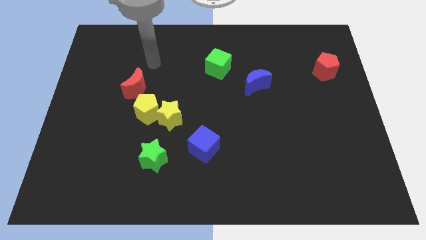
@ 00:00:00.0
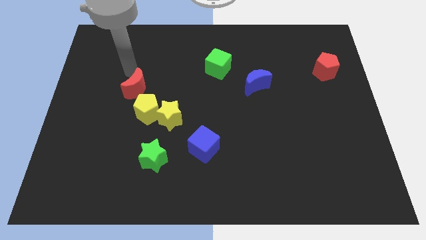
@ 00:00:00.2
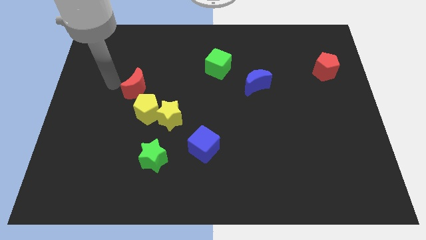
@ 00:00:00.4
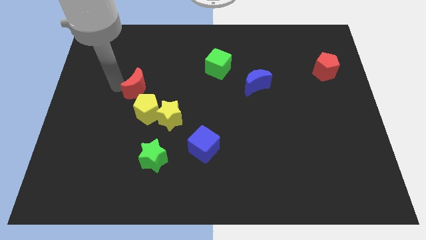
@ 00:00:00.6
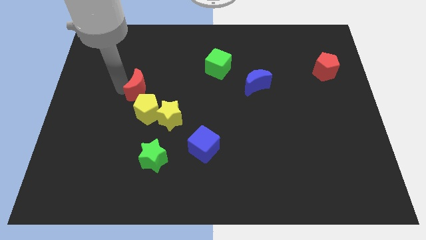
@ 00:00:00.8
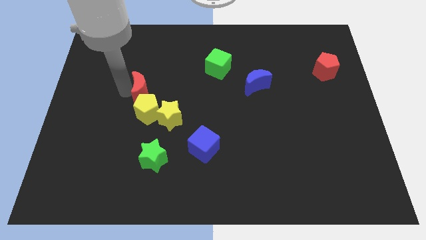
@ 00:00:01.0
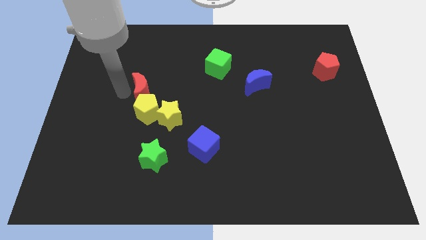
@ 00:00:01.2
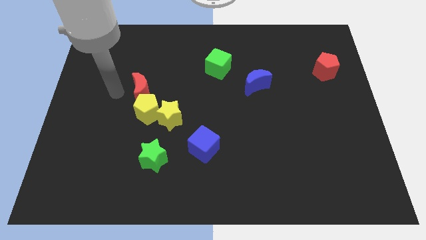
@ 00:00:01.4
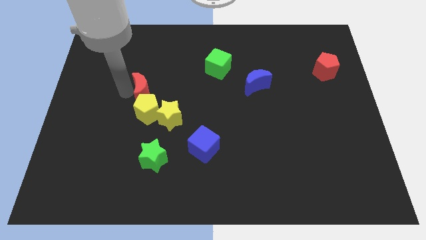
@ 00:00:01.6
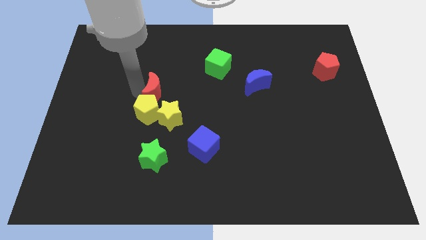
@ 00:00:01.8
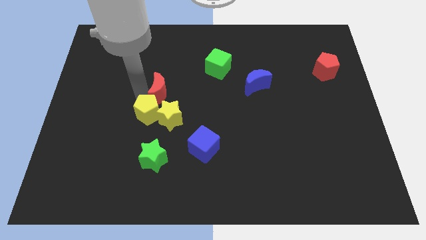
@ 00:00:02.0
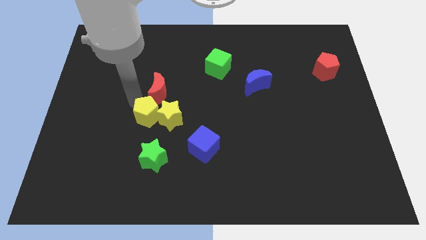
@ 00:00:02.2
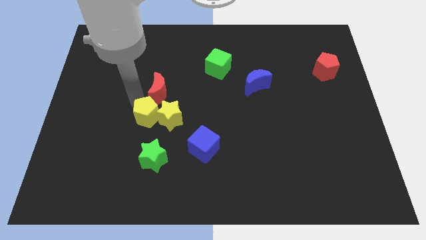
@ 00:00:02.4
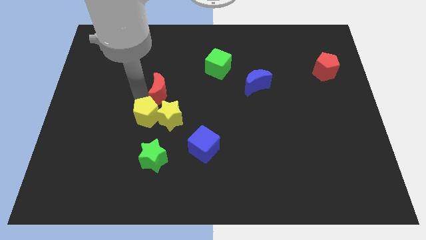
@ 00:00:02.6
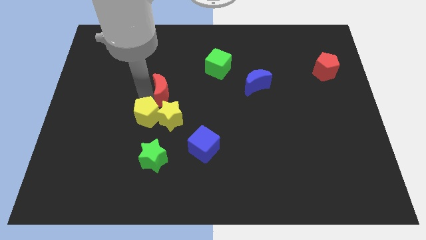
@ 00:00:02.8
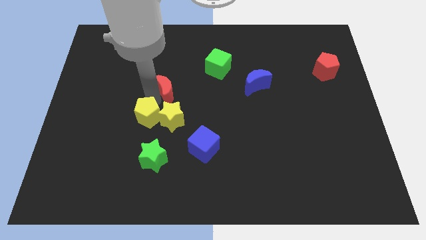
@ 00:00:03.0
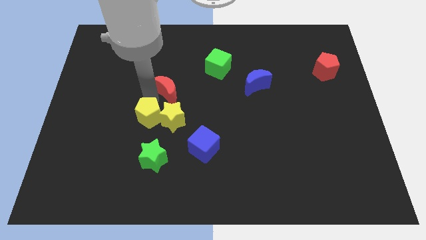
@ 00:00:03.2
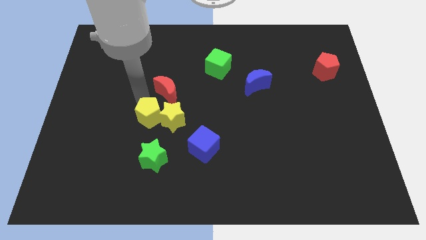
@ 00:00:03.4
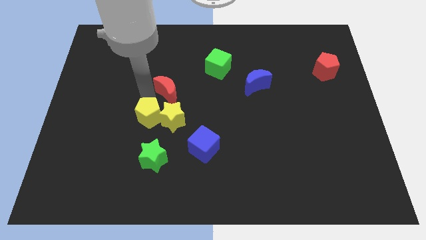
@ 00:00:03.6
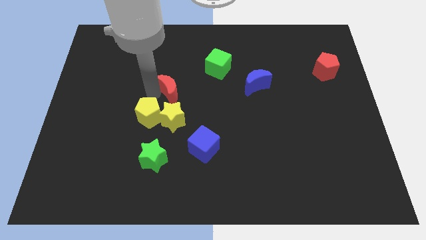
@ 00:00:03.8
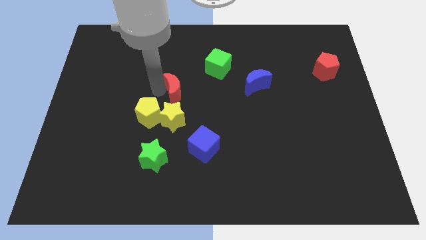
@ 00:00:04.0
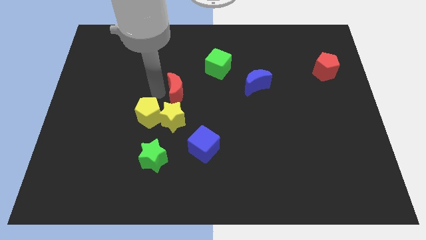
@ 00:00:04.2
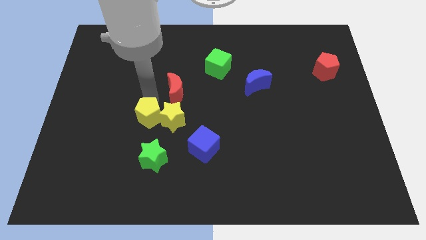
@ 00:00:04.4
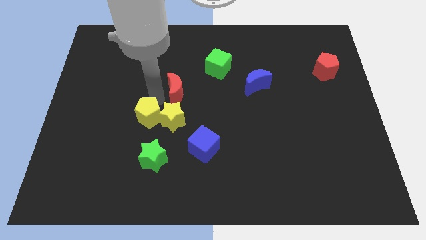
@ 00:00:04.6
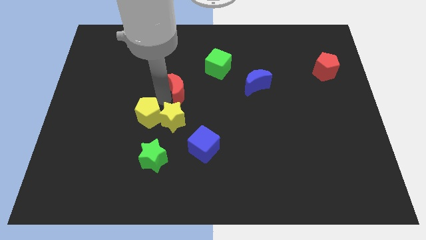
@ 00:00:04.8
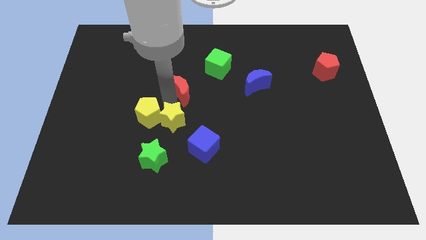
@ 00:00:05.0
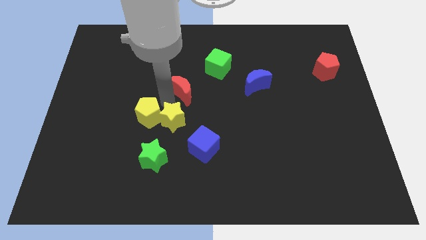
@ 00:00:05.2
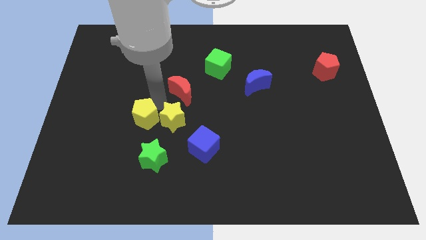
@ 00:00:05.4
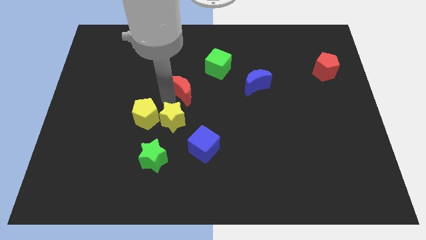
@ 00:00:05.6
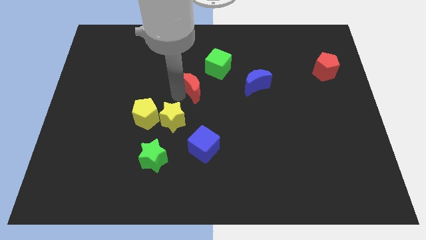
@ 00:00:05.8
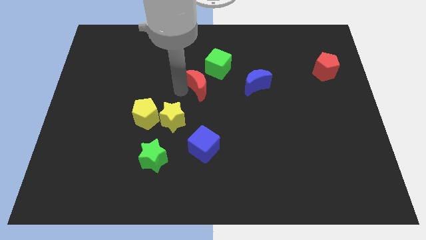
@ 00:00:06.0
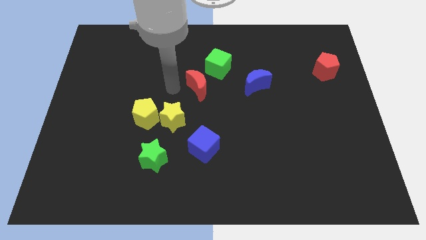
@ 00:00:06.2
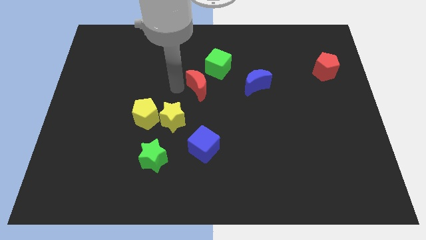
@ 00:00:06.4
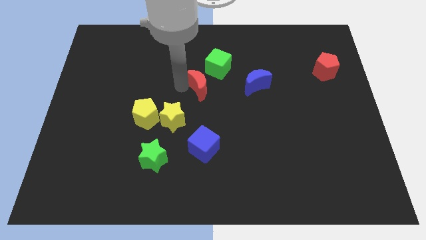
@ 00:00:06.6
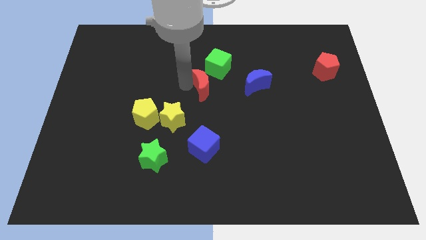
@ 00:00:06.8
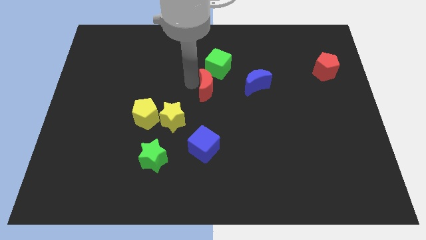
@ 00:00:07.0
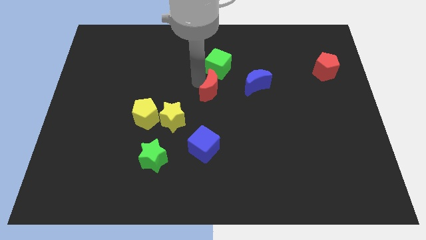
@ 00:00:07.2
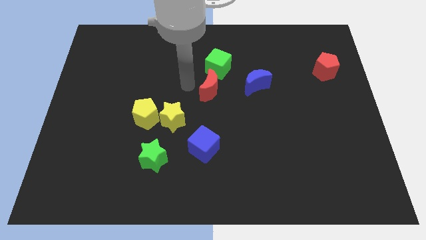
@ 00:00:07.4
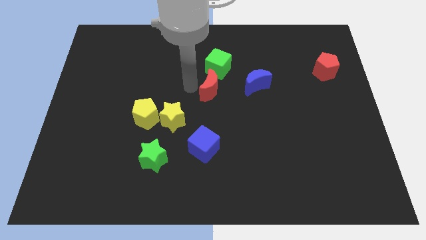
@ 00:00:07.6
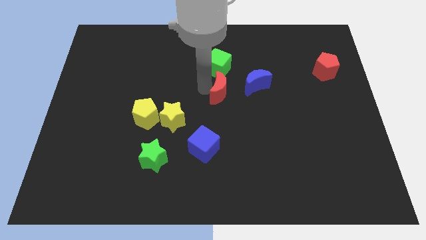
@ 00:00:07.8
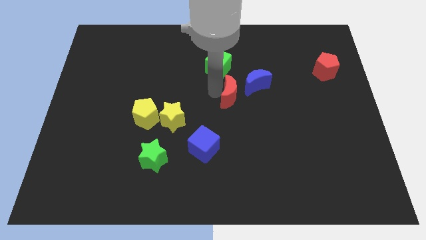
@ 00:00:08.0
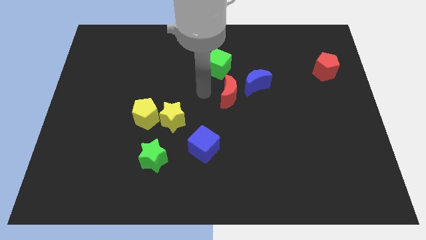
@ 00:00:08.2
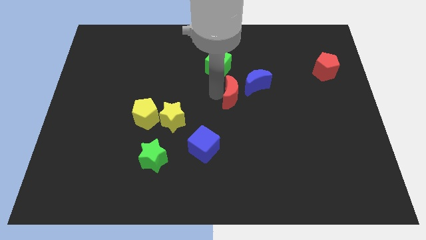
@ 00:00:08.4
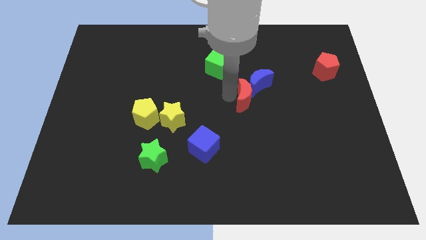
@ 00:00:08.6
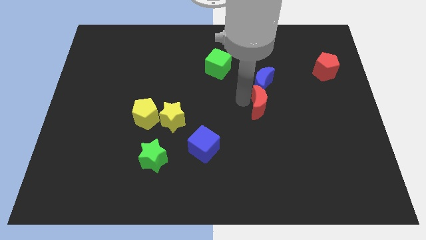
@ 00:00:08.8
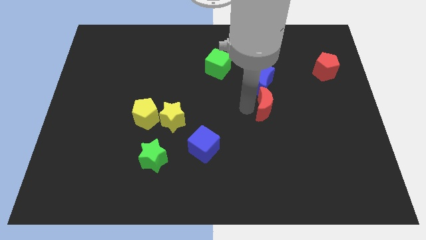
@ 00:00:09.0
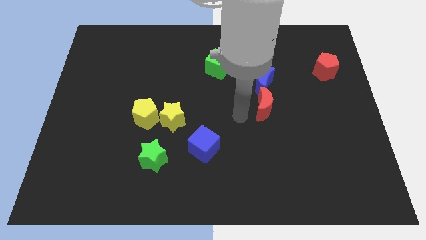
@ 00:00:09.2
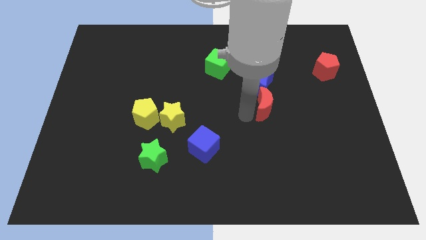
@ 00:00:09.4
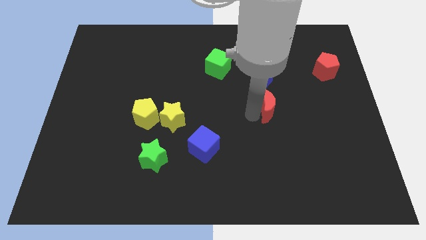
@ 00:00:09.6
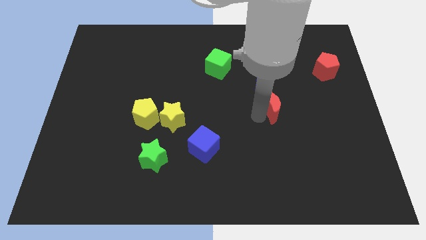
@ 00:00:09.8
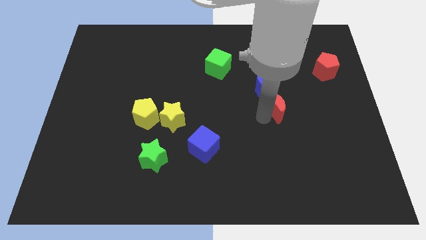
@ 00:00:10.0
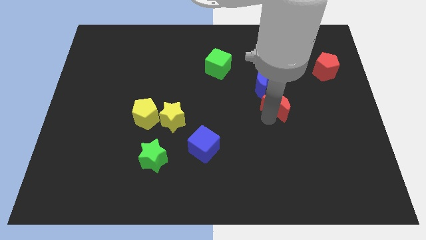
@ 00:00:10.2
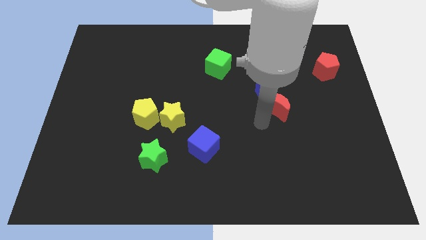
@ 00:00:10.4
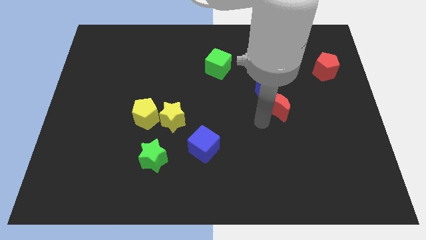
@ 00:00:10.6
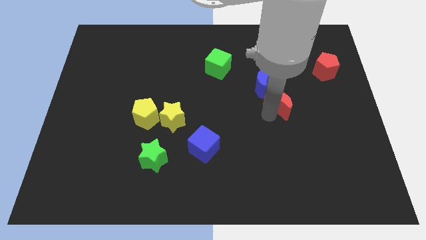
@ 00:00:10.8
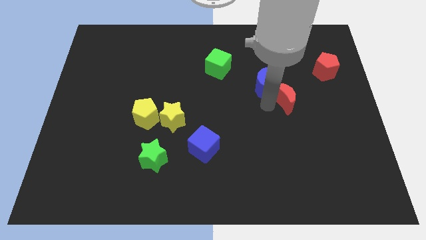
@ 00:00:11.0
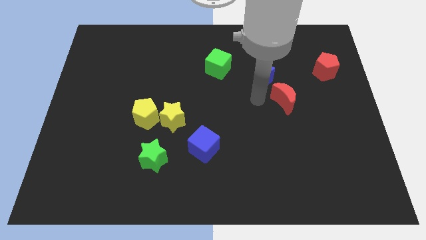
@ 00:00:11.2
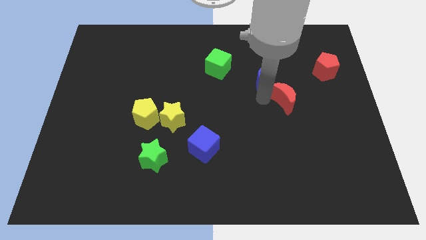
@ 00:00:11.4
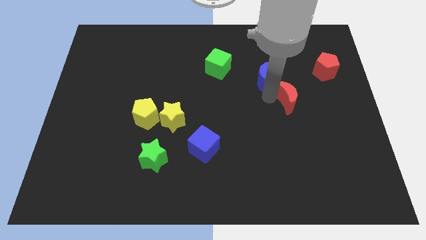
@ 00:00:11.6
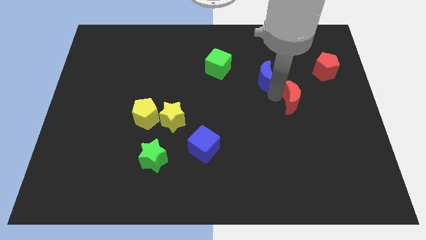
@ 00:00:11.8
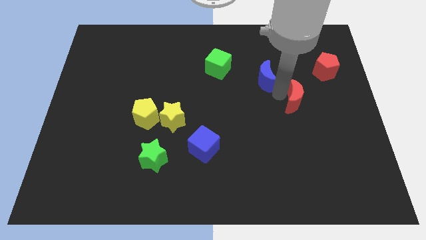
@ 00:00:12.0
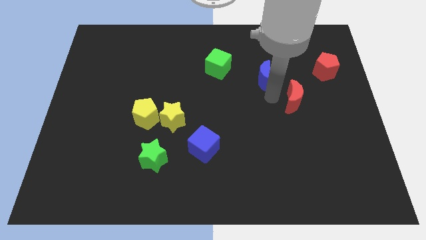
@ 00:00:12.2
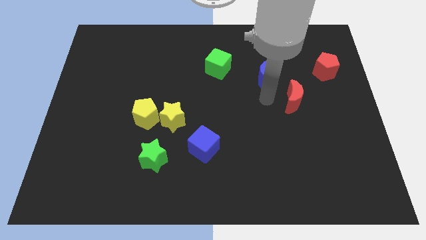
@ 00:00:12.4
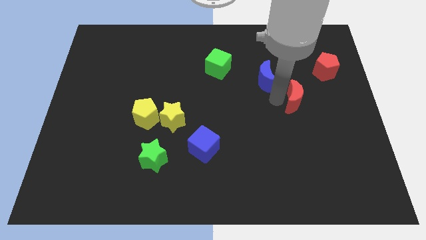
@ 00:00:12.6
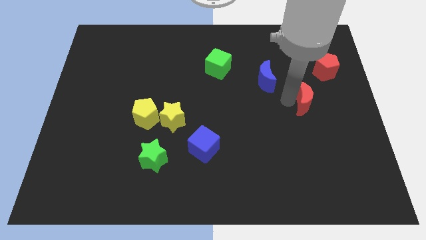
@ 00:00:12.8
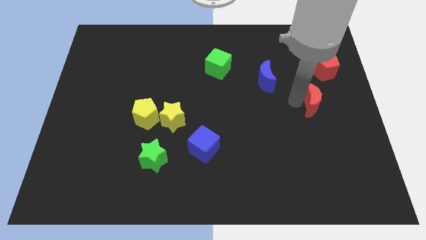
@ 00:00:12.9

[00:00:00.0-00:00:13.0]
move the red moon to the bottom of the red pentagon
